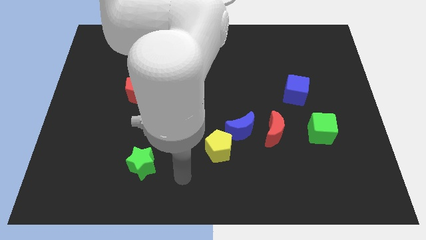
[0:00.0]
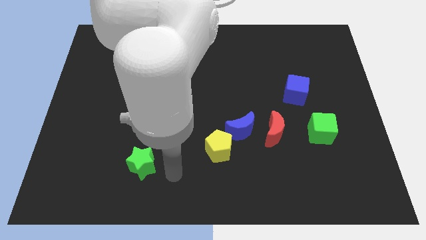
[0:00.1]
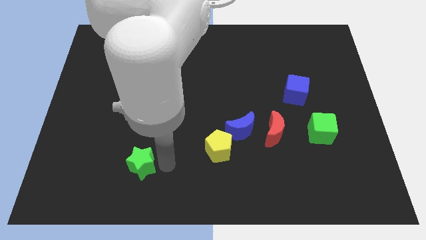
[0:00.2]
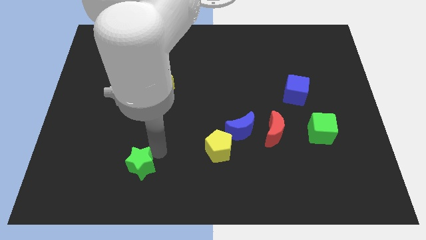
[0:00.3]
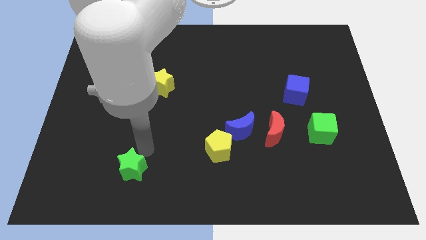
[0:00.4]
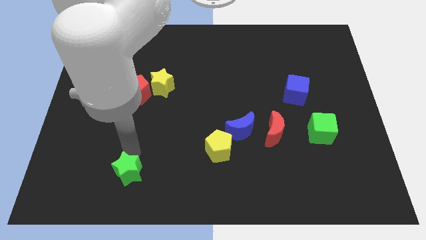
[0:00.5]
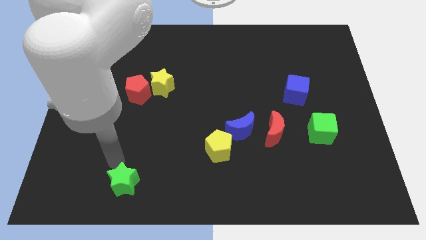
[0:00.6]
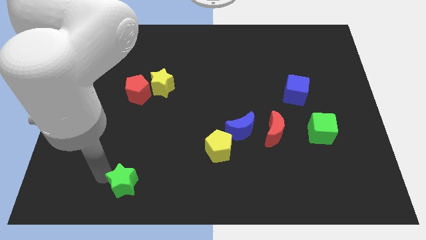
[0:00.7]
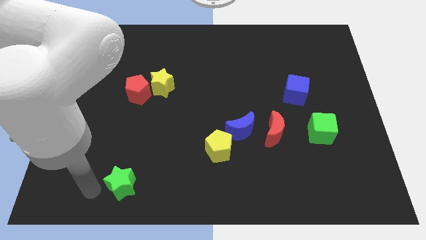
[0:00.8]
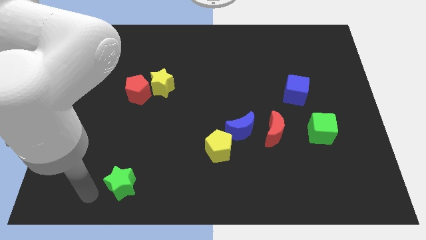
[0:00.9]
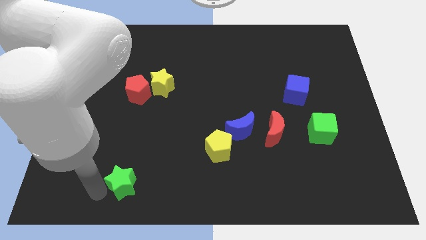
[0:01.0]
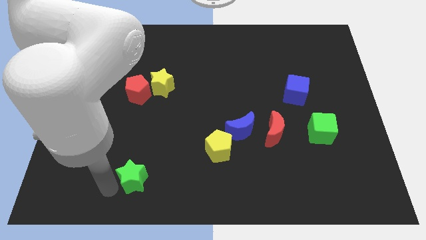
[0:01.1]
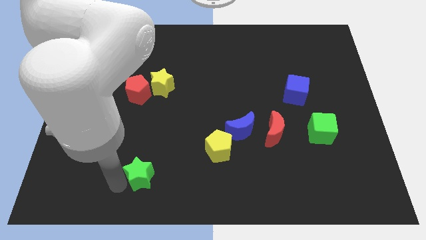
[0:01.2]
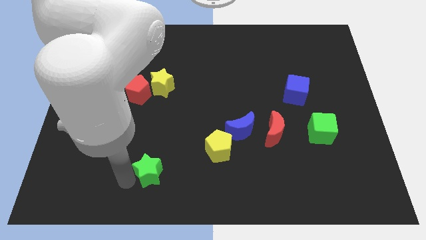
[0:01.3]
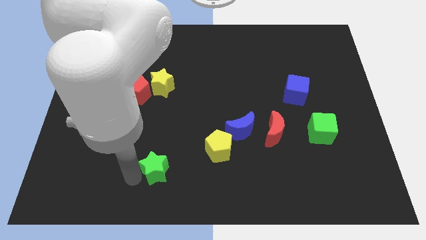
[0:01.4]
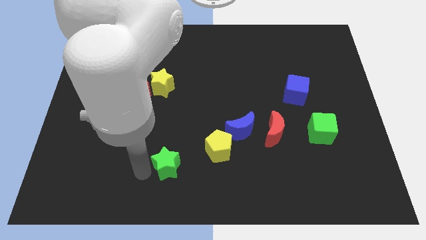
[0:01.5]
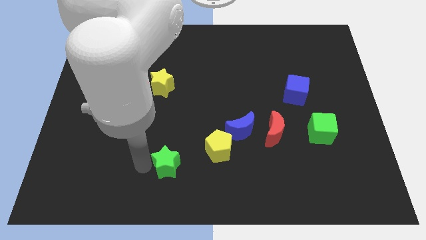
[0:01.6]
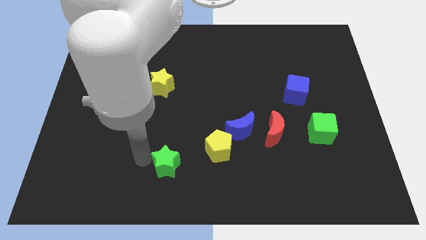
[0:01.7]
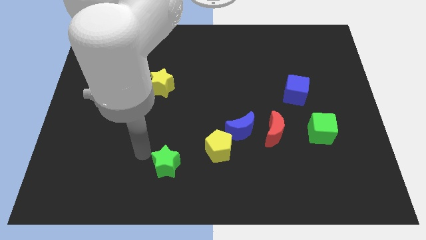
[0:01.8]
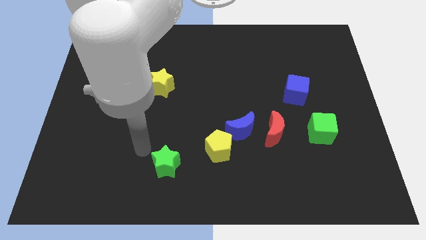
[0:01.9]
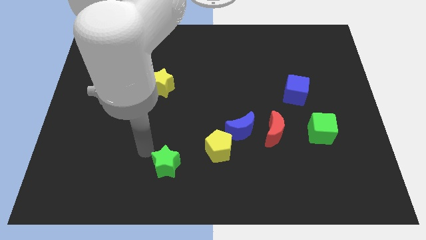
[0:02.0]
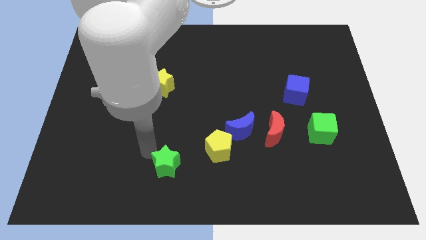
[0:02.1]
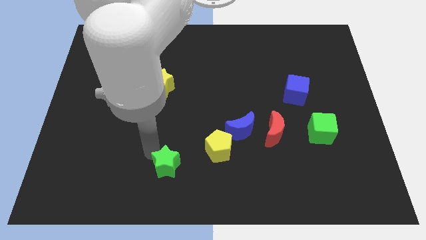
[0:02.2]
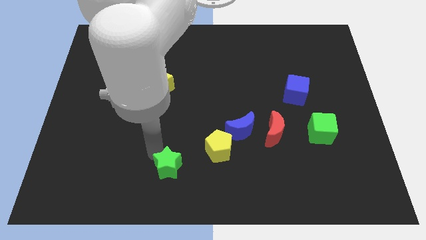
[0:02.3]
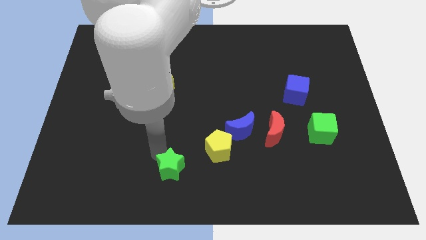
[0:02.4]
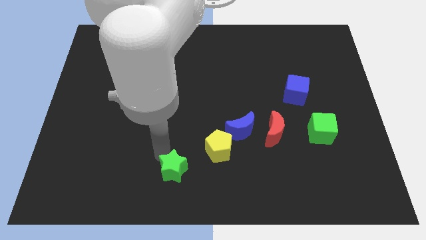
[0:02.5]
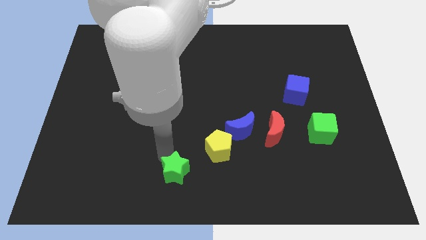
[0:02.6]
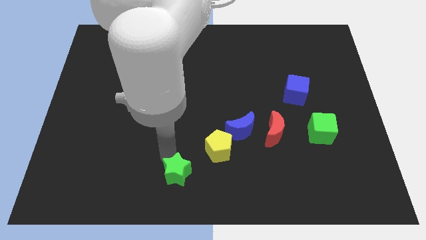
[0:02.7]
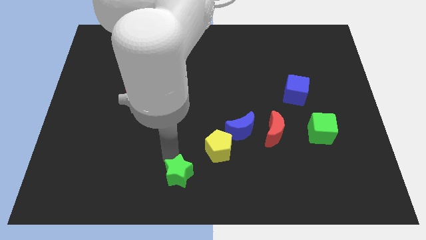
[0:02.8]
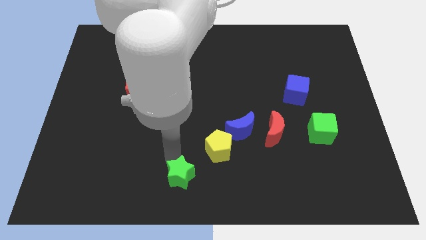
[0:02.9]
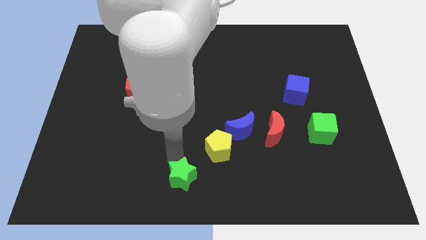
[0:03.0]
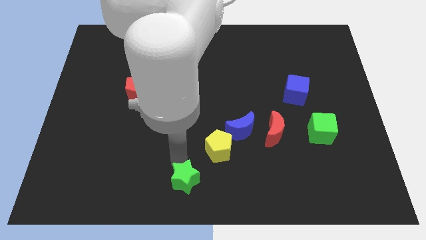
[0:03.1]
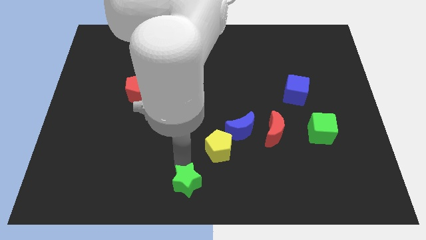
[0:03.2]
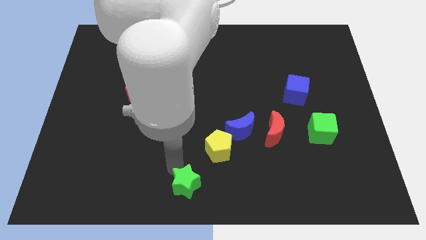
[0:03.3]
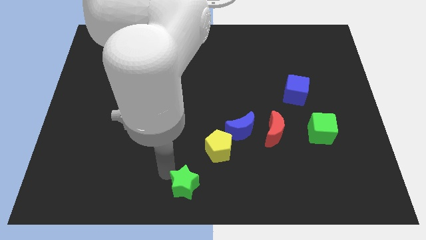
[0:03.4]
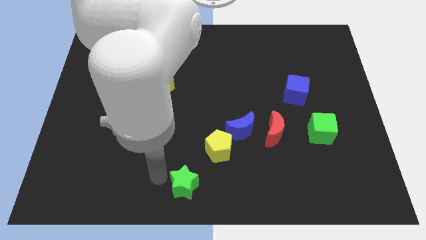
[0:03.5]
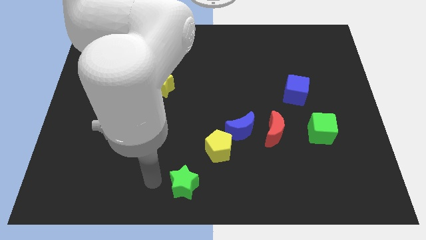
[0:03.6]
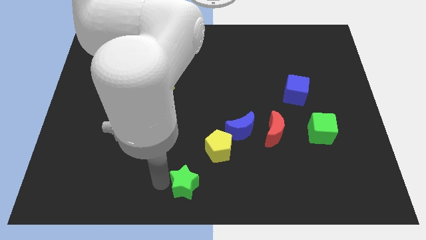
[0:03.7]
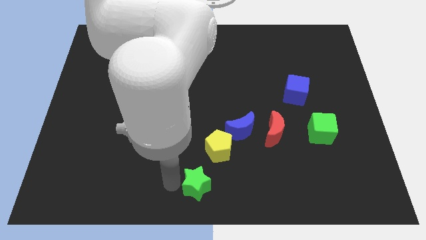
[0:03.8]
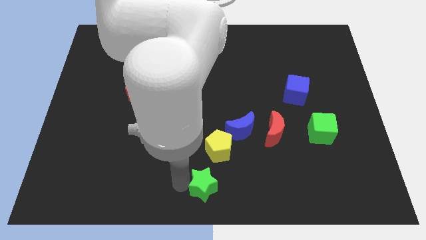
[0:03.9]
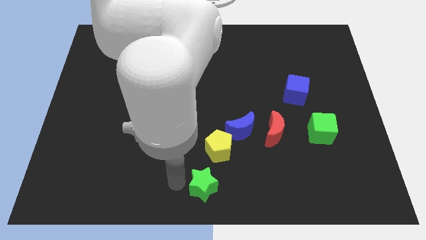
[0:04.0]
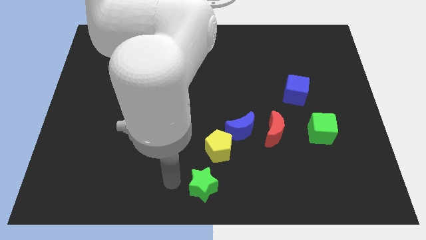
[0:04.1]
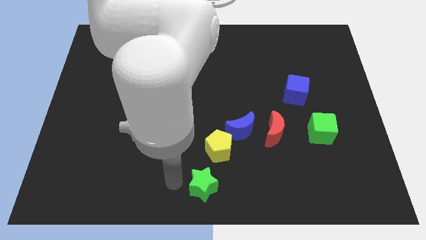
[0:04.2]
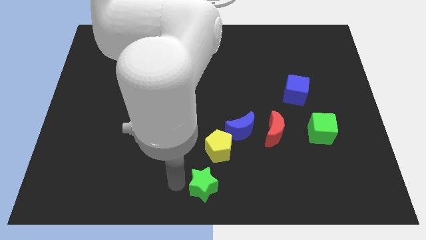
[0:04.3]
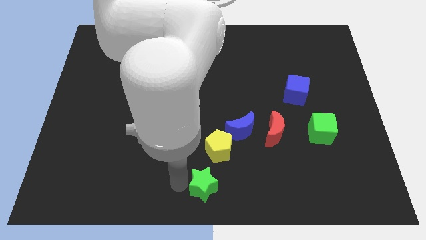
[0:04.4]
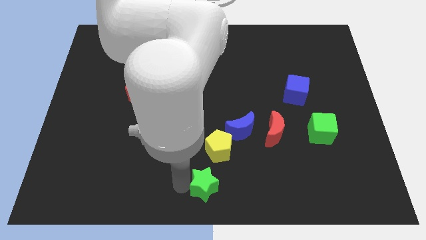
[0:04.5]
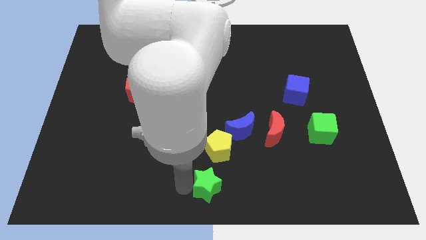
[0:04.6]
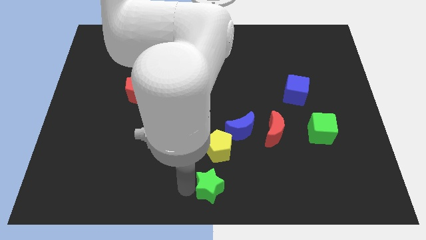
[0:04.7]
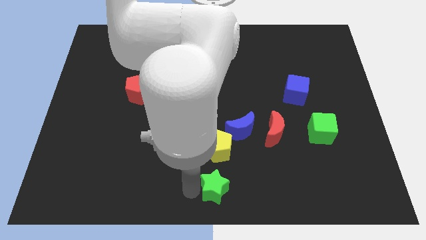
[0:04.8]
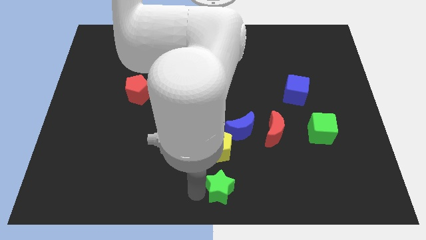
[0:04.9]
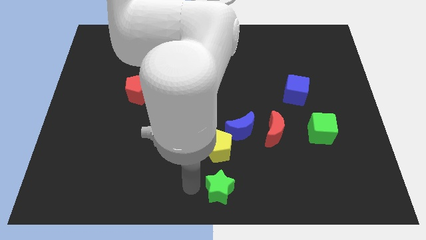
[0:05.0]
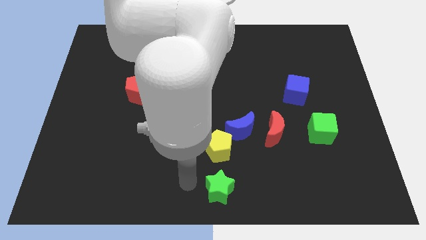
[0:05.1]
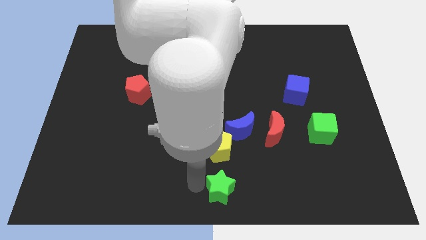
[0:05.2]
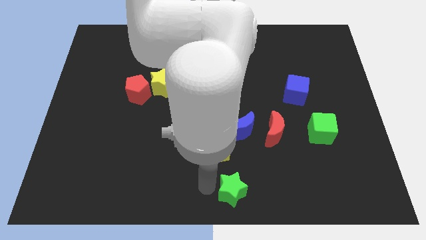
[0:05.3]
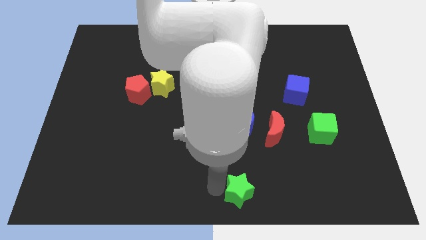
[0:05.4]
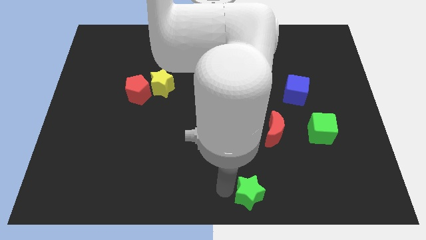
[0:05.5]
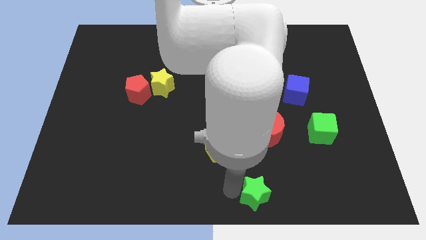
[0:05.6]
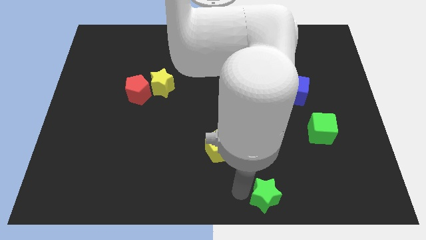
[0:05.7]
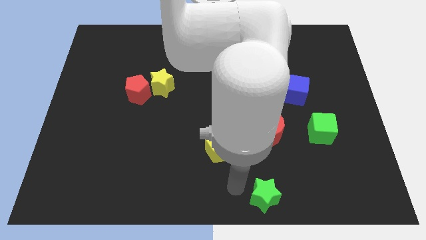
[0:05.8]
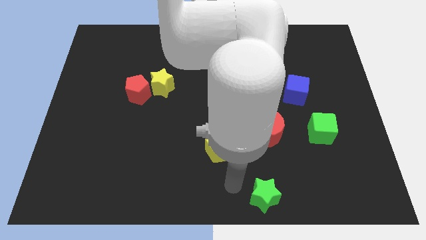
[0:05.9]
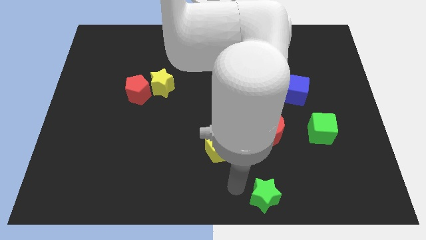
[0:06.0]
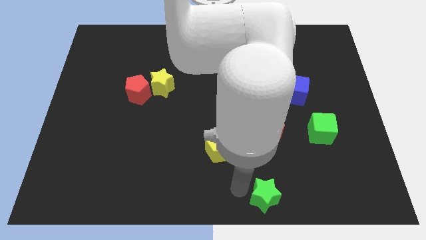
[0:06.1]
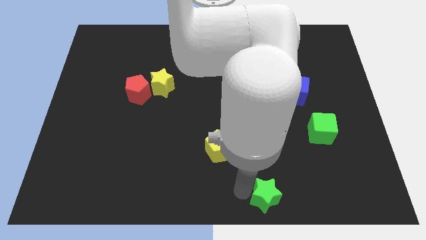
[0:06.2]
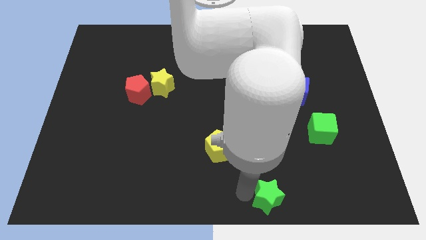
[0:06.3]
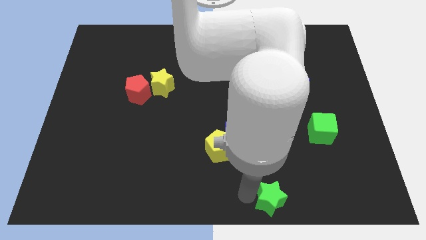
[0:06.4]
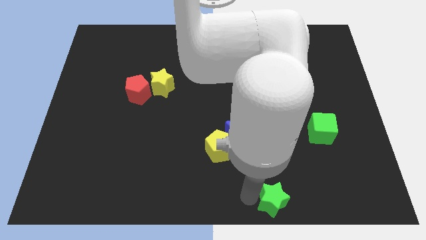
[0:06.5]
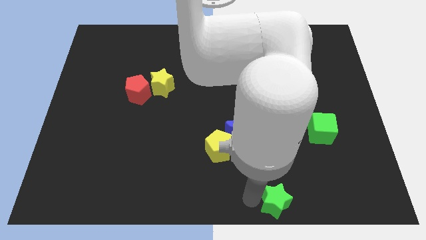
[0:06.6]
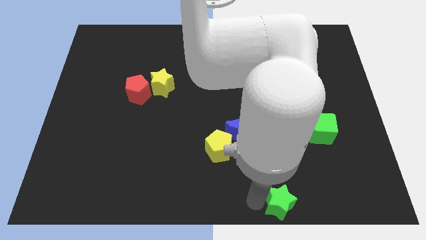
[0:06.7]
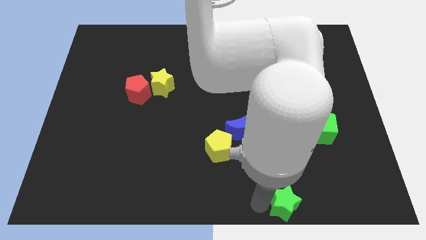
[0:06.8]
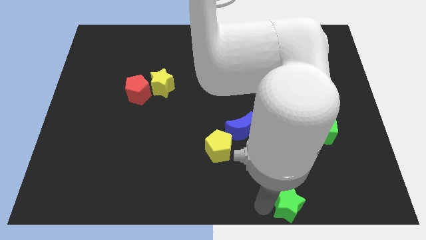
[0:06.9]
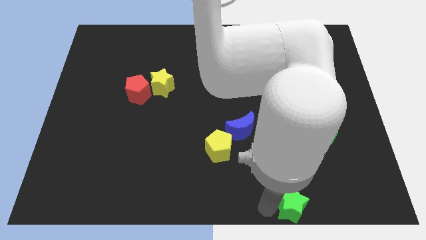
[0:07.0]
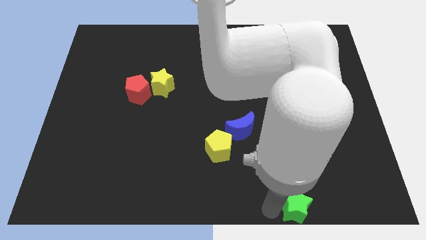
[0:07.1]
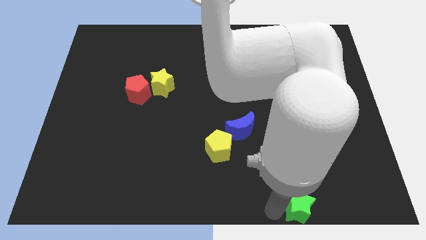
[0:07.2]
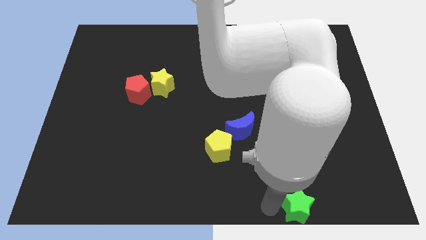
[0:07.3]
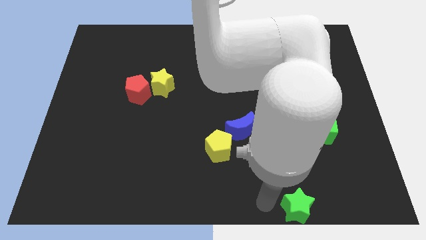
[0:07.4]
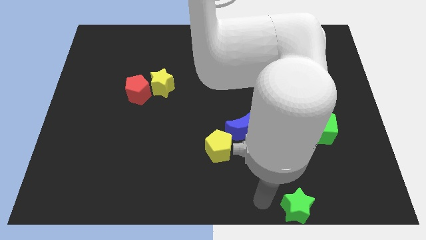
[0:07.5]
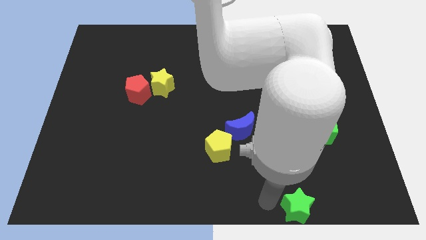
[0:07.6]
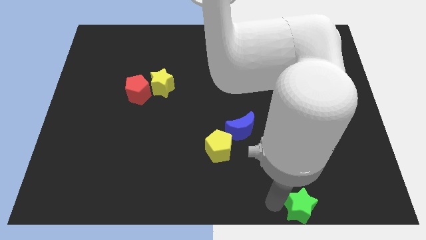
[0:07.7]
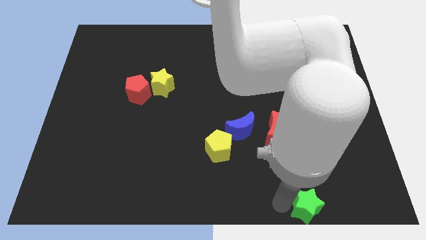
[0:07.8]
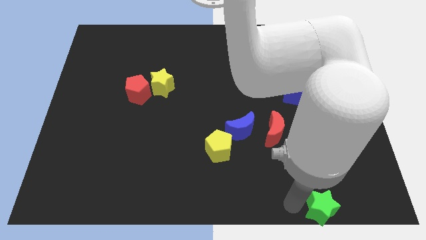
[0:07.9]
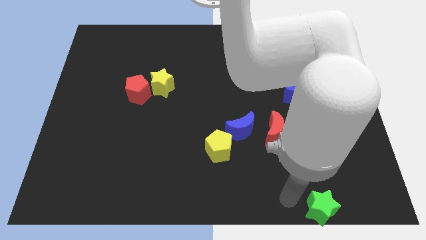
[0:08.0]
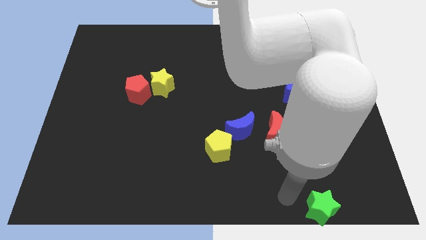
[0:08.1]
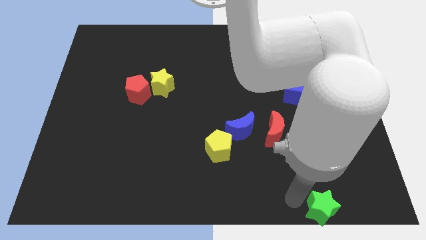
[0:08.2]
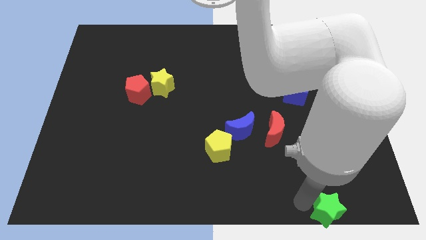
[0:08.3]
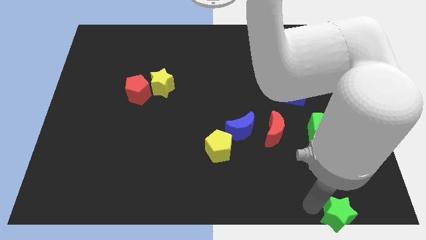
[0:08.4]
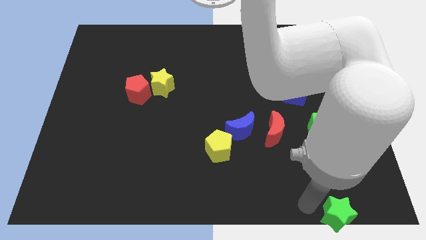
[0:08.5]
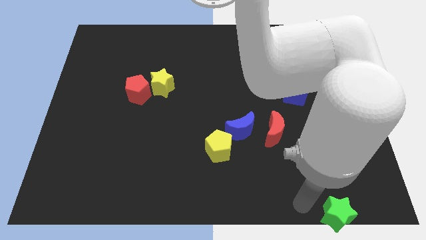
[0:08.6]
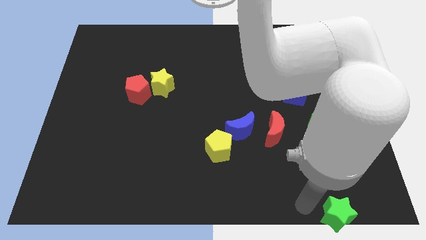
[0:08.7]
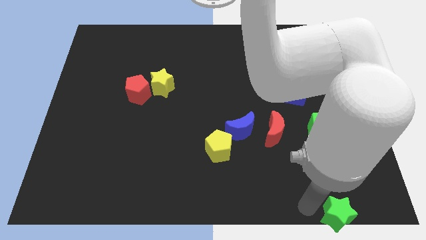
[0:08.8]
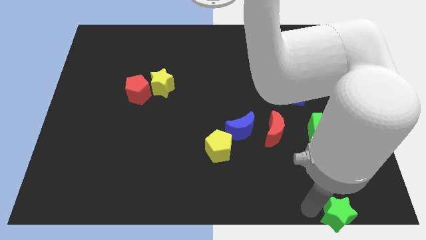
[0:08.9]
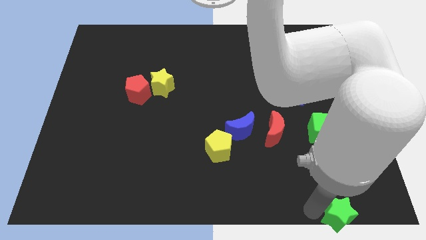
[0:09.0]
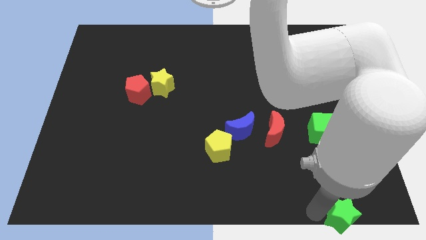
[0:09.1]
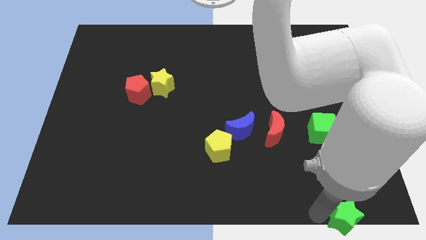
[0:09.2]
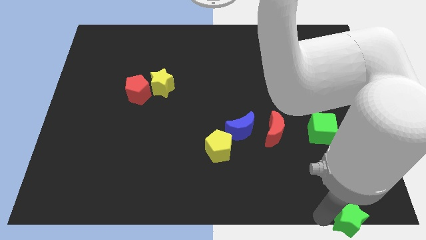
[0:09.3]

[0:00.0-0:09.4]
put the green star to the lower right corner
